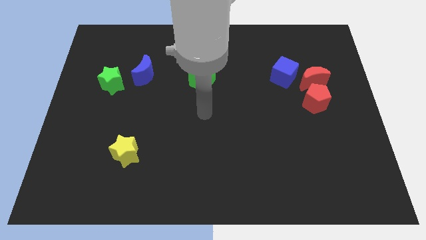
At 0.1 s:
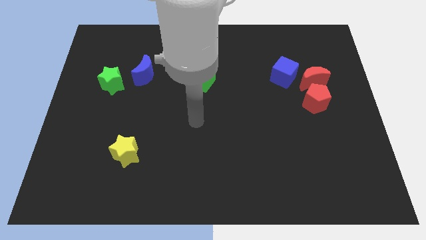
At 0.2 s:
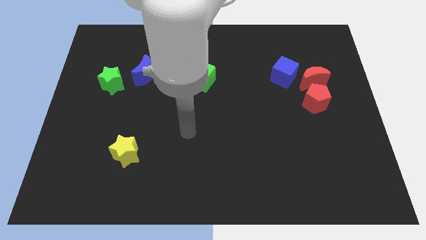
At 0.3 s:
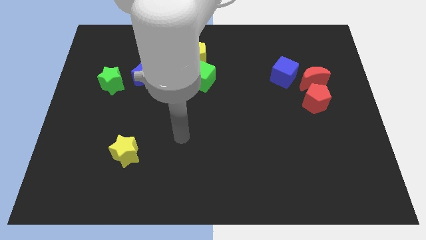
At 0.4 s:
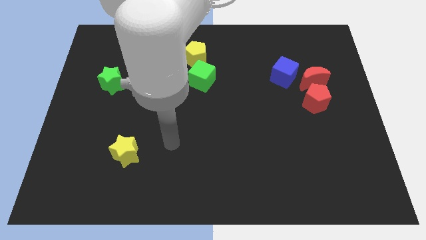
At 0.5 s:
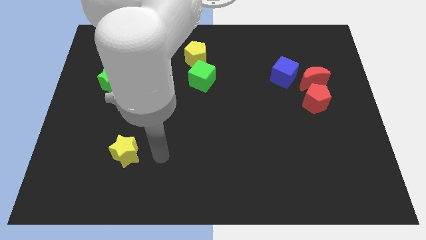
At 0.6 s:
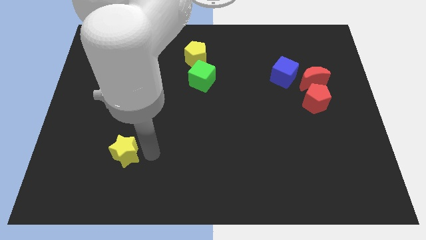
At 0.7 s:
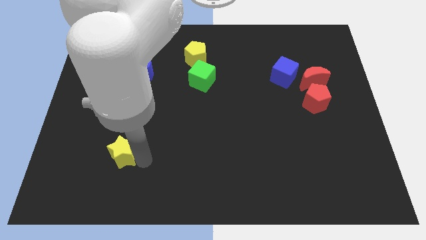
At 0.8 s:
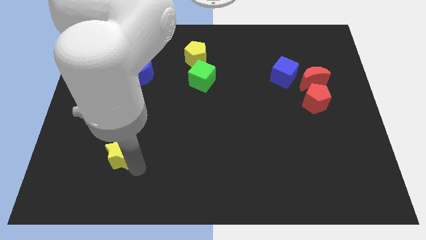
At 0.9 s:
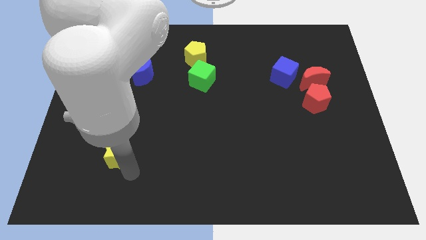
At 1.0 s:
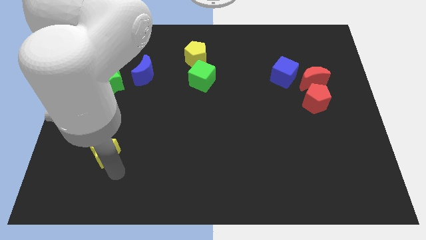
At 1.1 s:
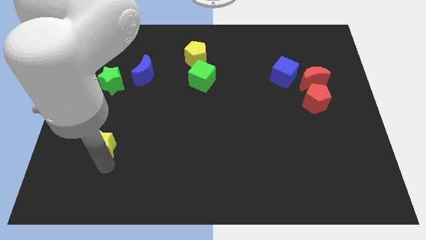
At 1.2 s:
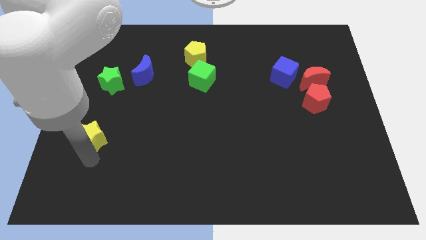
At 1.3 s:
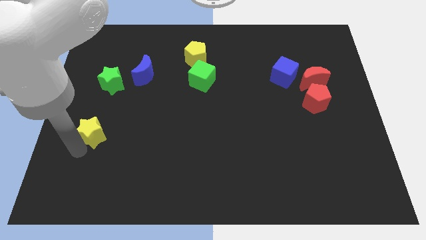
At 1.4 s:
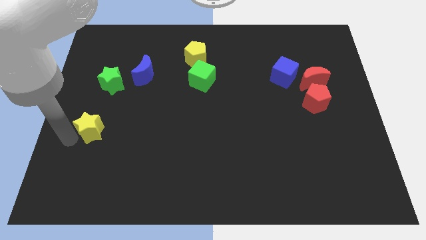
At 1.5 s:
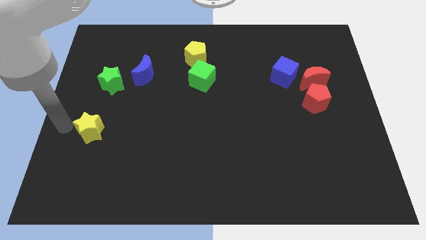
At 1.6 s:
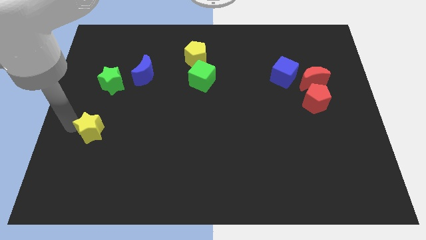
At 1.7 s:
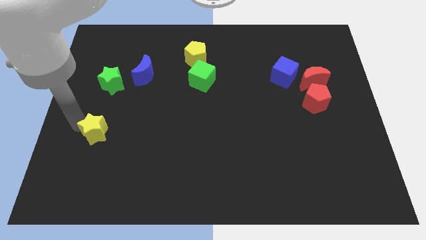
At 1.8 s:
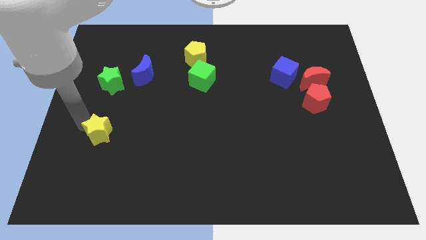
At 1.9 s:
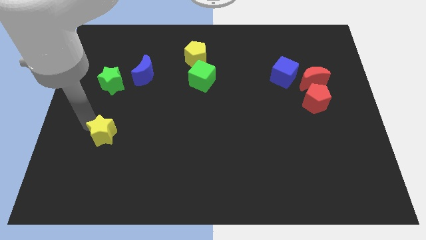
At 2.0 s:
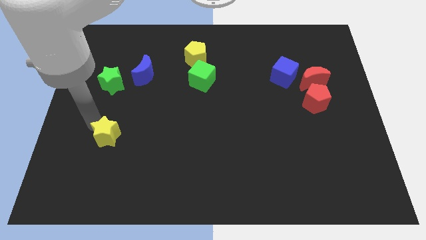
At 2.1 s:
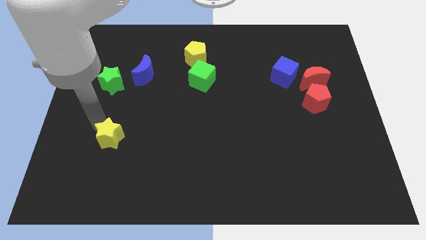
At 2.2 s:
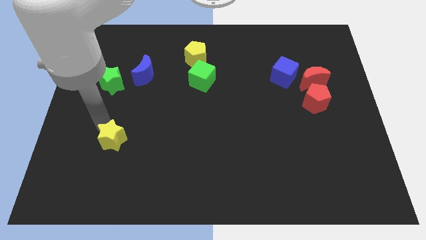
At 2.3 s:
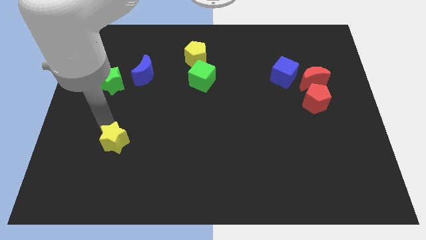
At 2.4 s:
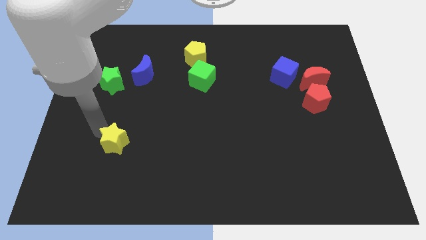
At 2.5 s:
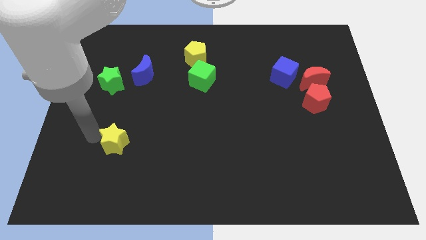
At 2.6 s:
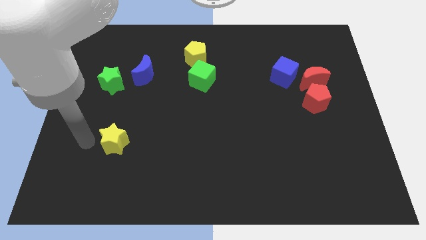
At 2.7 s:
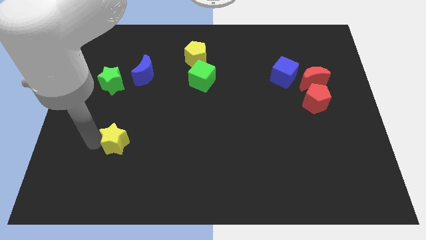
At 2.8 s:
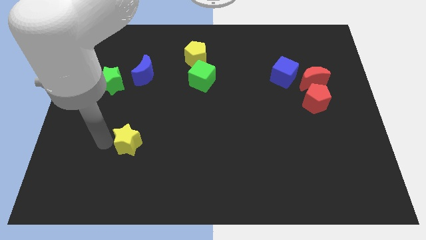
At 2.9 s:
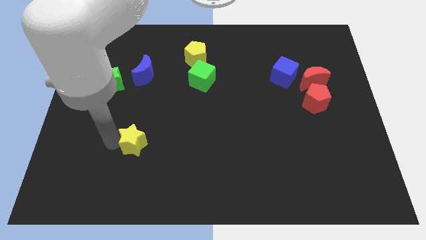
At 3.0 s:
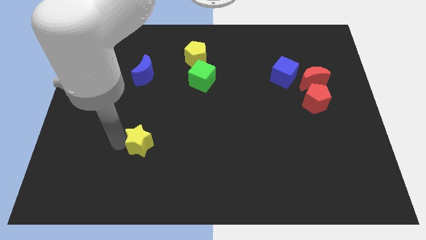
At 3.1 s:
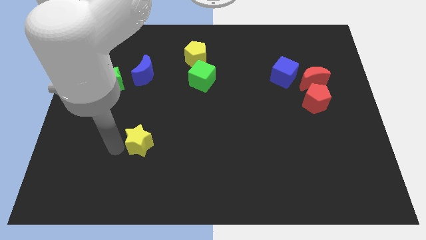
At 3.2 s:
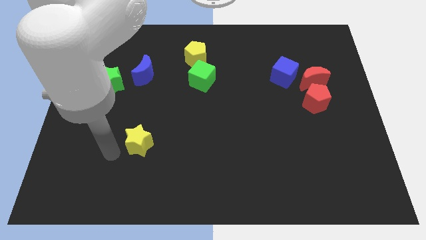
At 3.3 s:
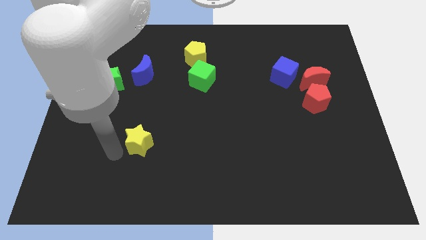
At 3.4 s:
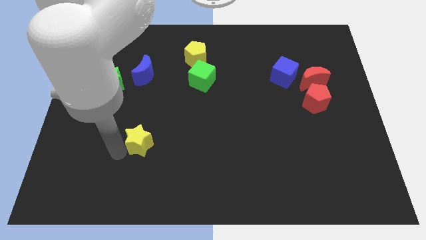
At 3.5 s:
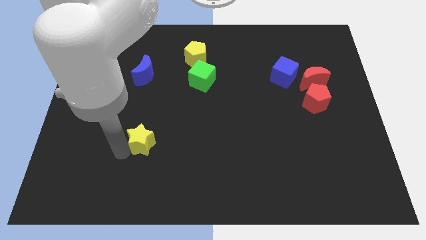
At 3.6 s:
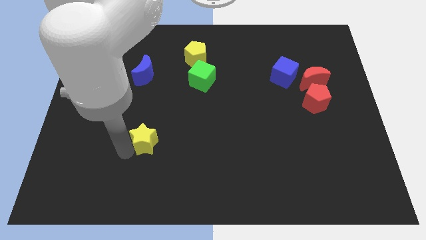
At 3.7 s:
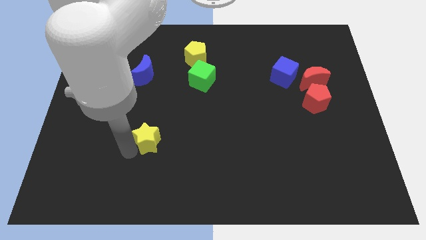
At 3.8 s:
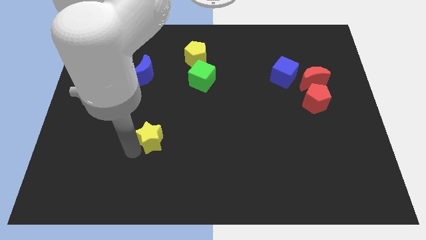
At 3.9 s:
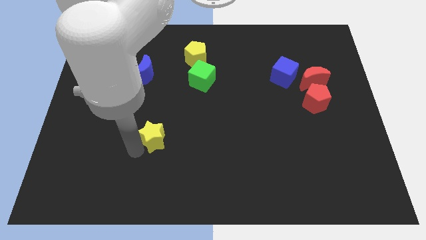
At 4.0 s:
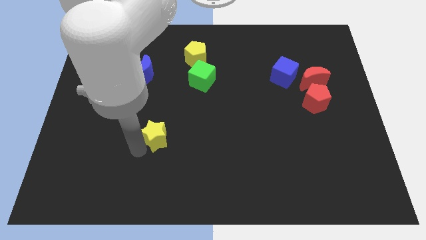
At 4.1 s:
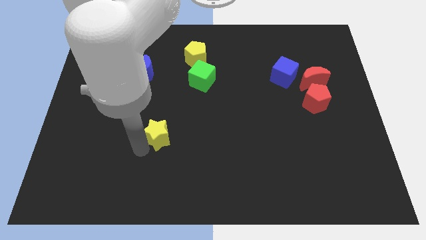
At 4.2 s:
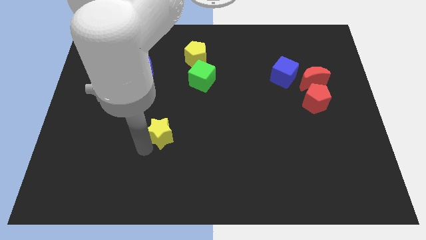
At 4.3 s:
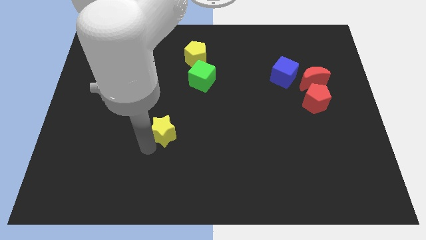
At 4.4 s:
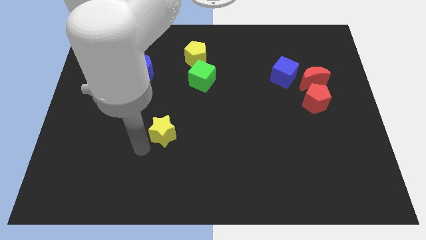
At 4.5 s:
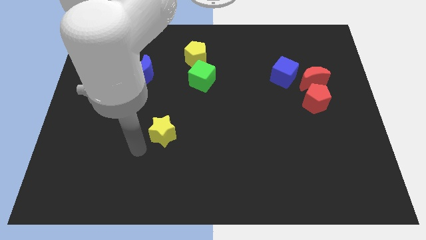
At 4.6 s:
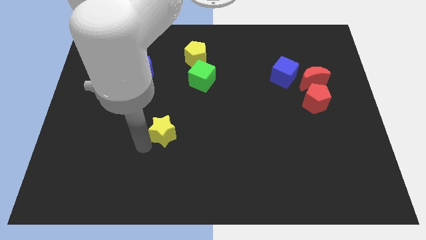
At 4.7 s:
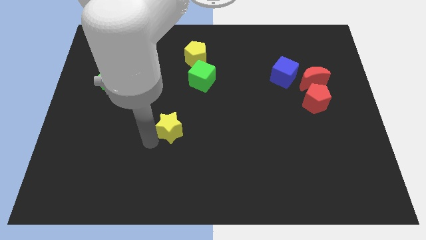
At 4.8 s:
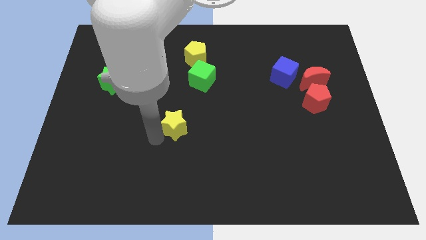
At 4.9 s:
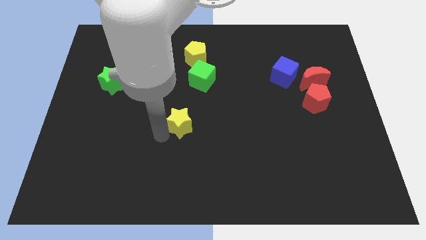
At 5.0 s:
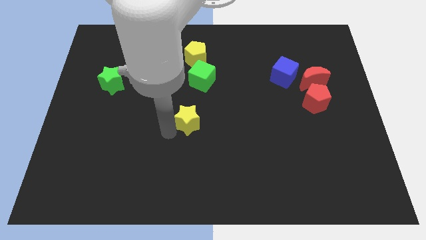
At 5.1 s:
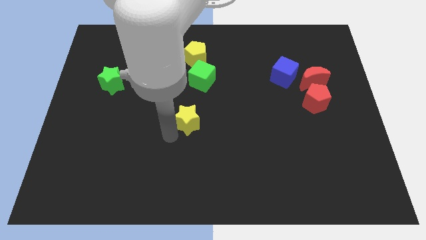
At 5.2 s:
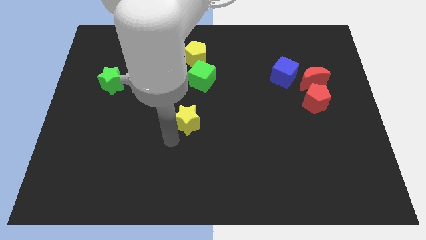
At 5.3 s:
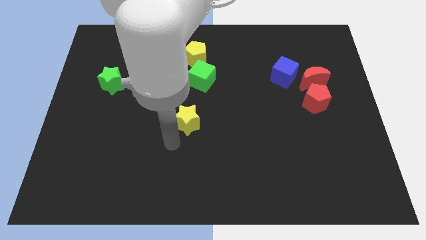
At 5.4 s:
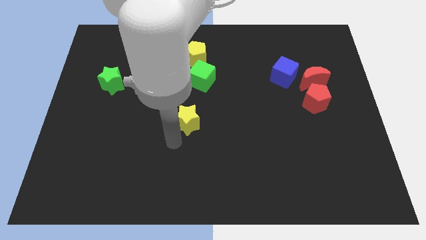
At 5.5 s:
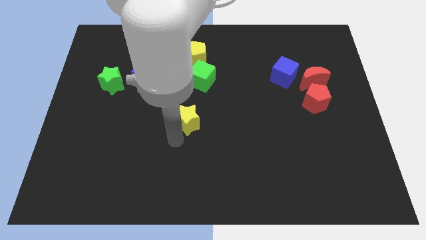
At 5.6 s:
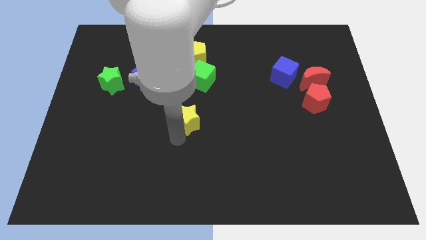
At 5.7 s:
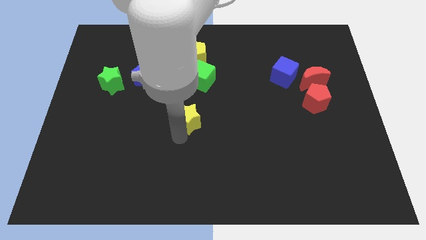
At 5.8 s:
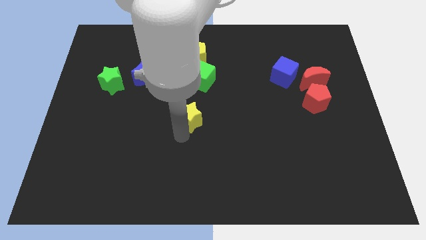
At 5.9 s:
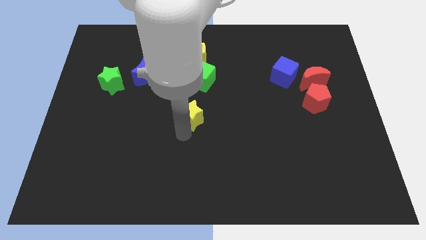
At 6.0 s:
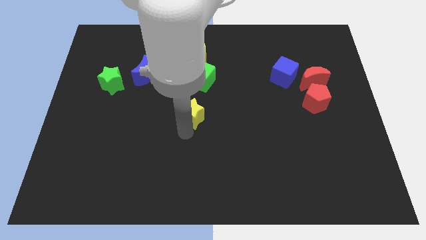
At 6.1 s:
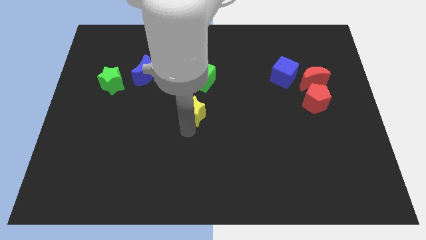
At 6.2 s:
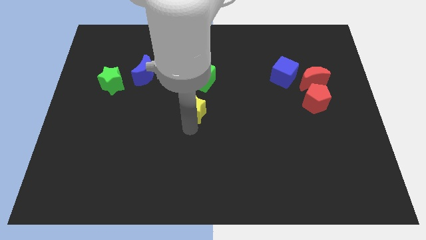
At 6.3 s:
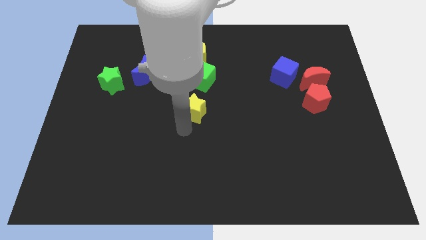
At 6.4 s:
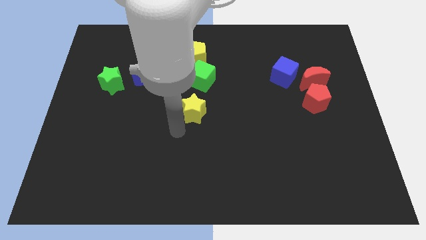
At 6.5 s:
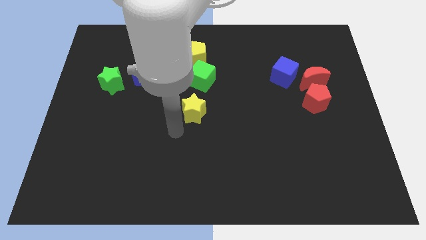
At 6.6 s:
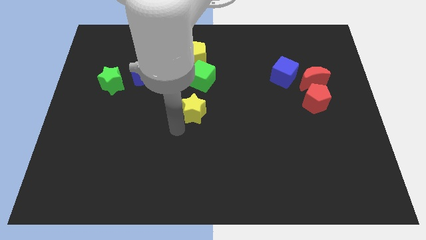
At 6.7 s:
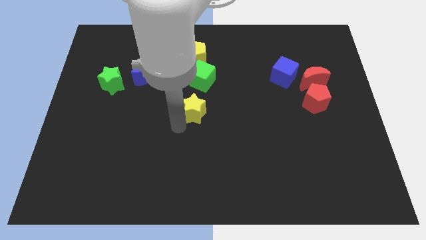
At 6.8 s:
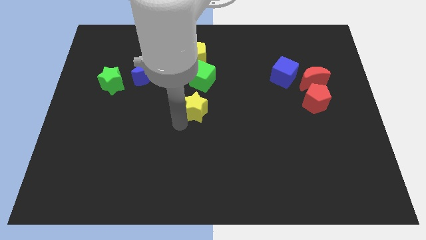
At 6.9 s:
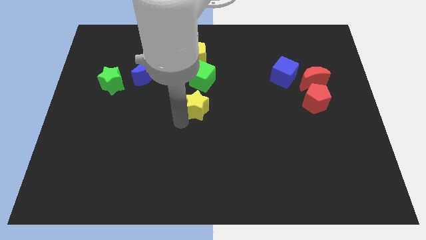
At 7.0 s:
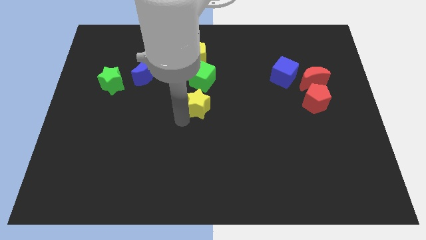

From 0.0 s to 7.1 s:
slide the yellow star up and then to the right

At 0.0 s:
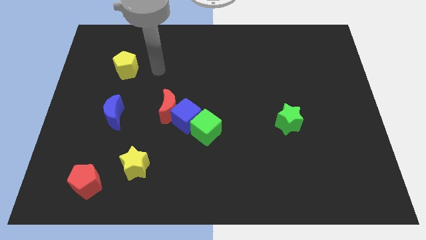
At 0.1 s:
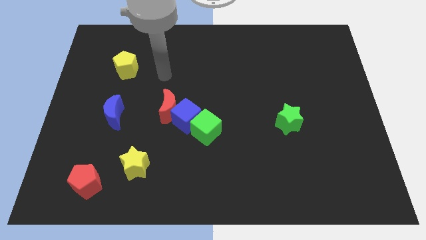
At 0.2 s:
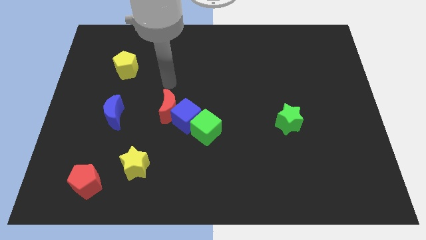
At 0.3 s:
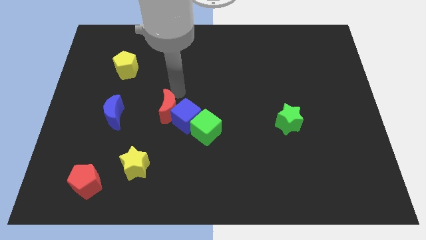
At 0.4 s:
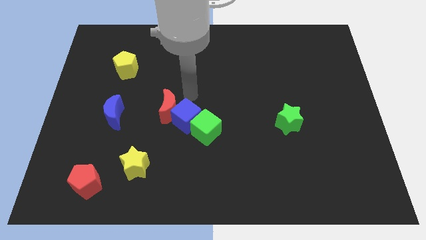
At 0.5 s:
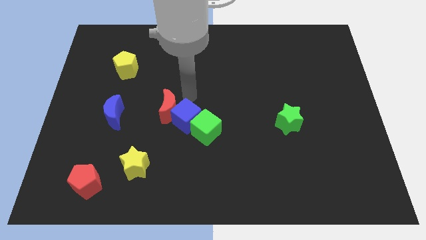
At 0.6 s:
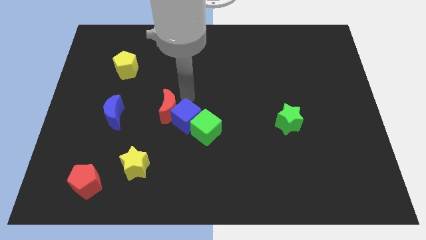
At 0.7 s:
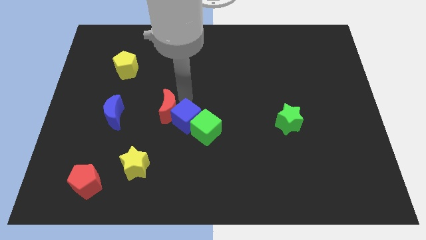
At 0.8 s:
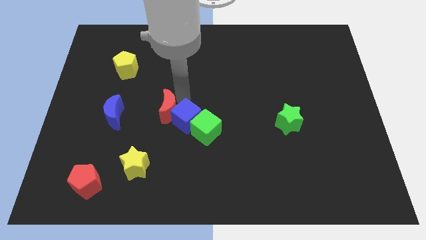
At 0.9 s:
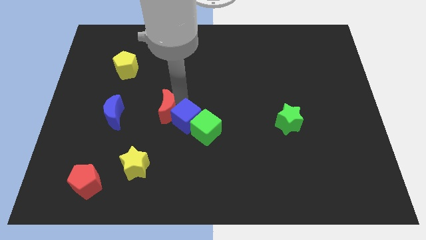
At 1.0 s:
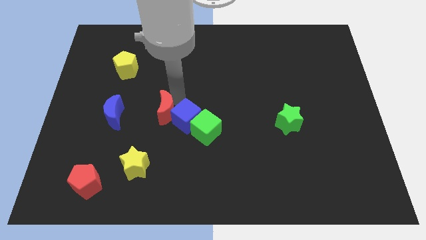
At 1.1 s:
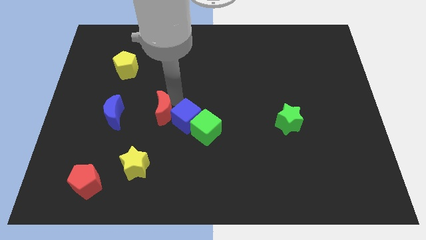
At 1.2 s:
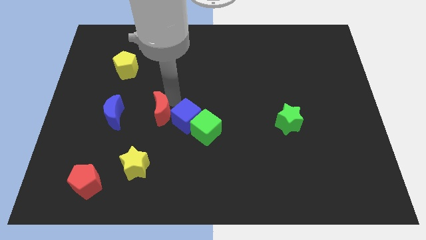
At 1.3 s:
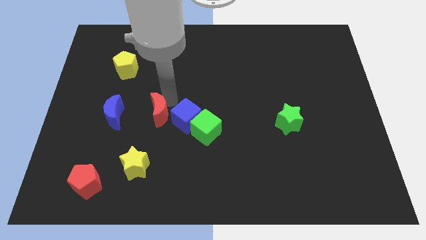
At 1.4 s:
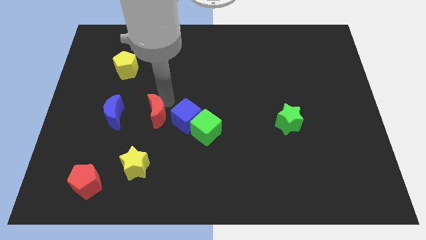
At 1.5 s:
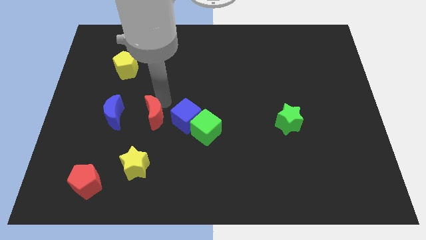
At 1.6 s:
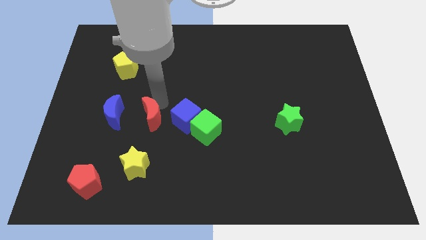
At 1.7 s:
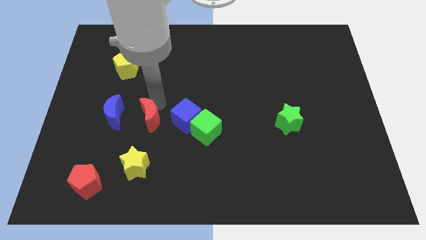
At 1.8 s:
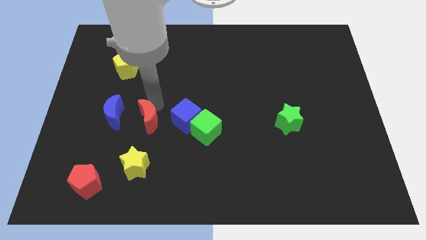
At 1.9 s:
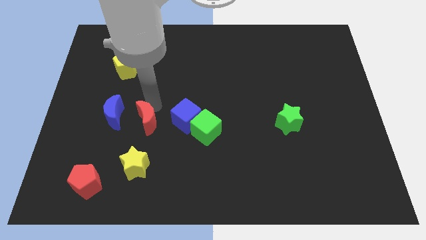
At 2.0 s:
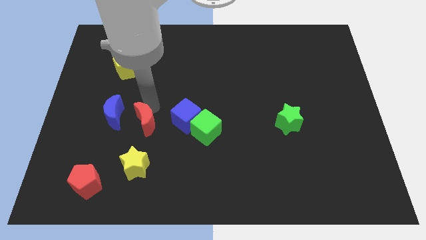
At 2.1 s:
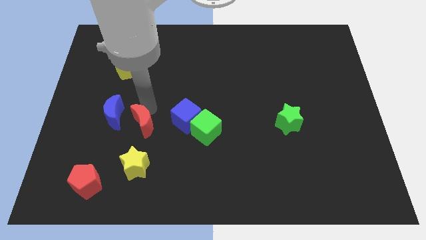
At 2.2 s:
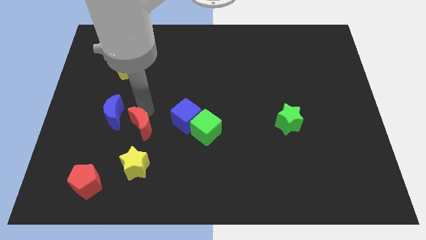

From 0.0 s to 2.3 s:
push the red moon a bit down and then to the left
